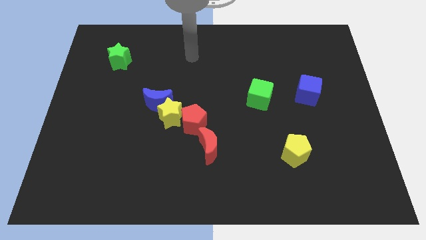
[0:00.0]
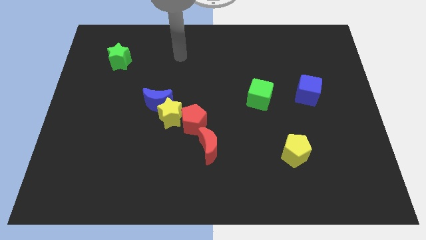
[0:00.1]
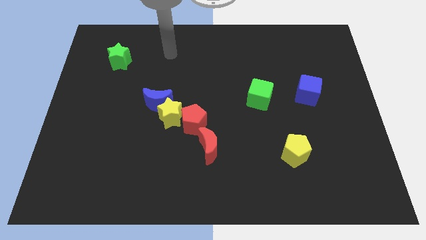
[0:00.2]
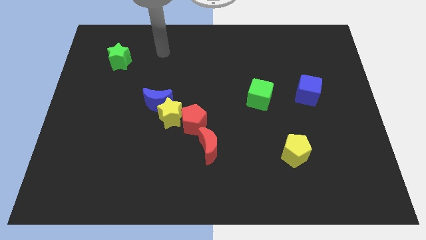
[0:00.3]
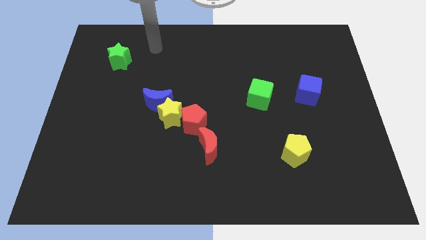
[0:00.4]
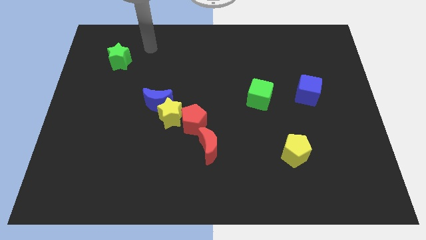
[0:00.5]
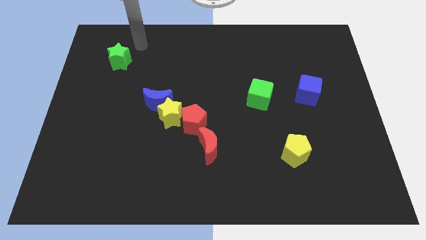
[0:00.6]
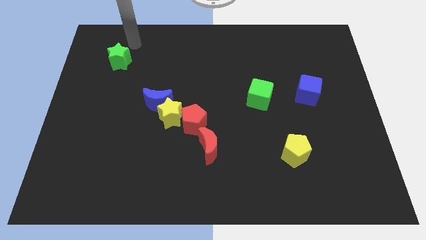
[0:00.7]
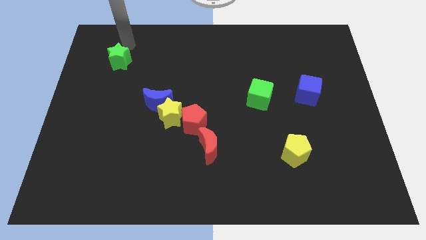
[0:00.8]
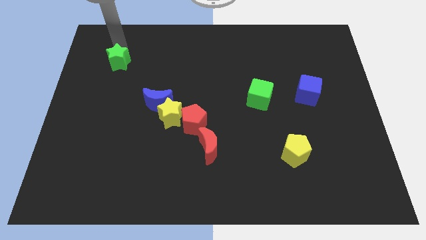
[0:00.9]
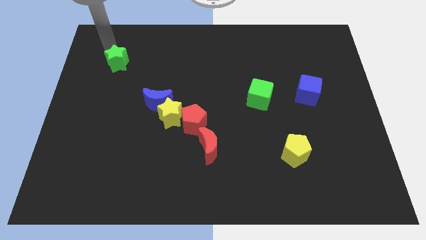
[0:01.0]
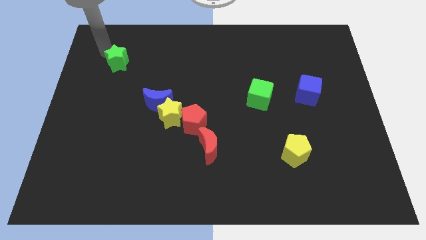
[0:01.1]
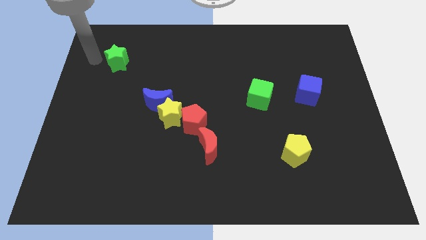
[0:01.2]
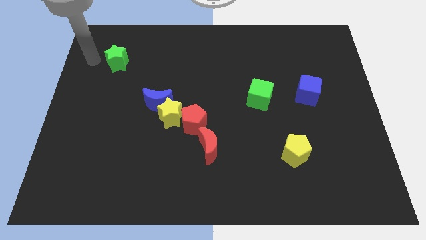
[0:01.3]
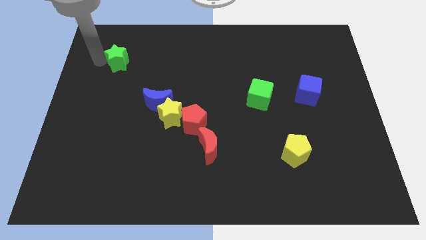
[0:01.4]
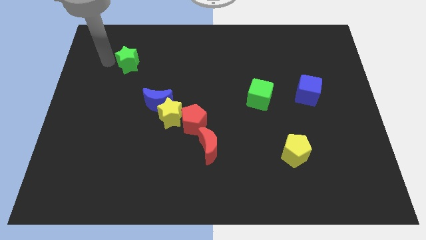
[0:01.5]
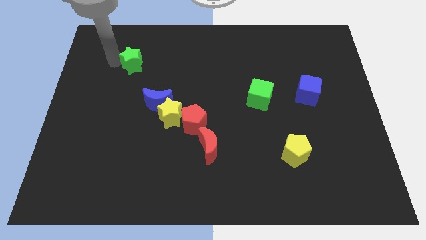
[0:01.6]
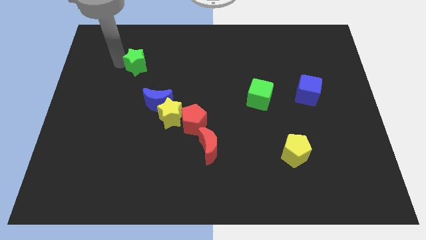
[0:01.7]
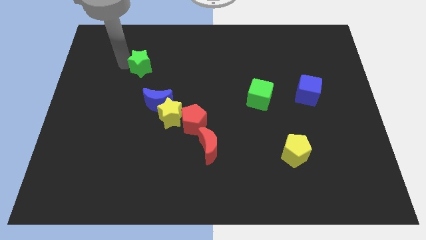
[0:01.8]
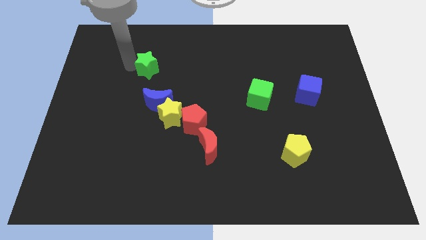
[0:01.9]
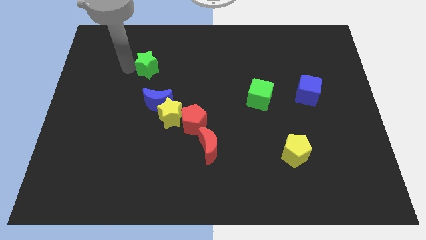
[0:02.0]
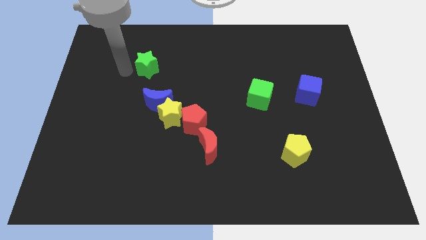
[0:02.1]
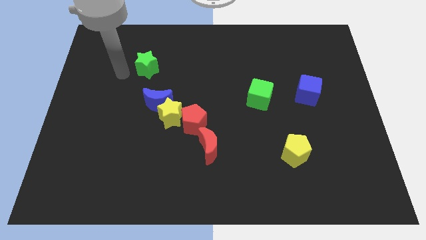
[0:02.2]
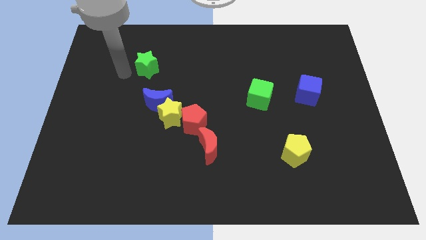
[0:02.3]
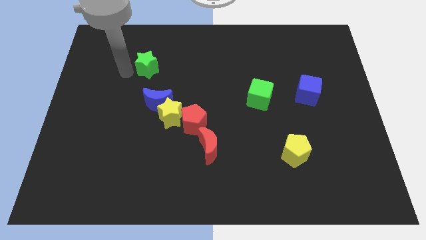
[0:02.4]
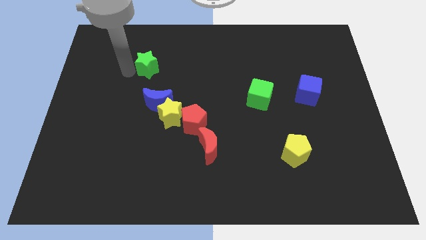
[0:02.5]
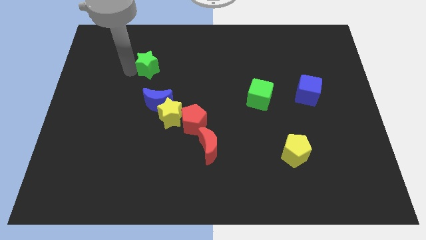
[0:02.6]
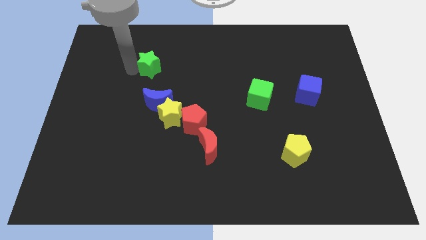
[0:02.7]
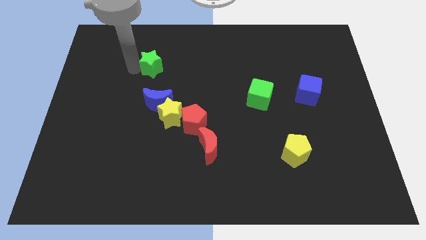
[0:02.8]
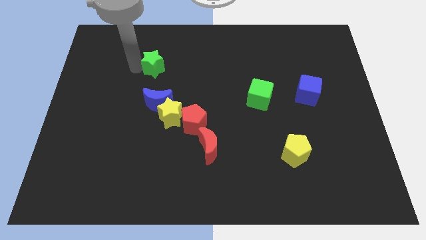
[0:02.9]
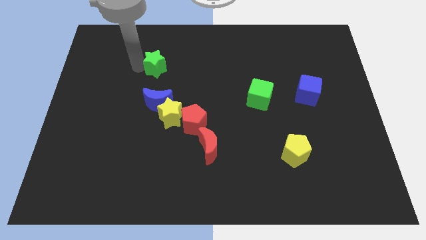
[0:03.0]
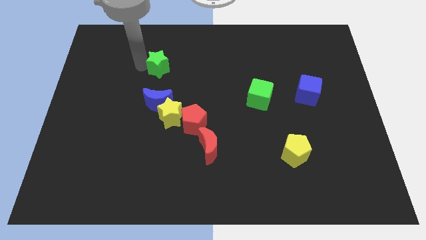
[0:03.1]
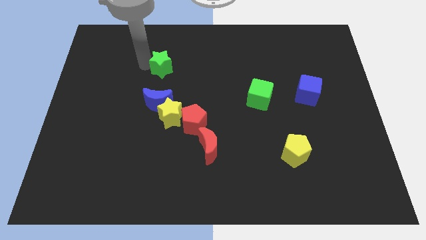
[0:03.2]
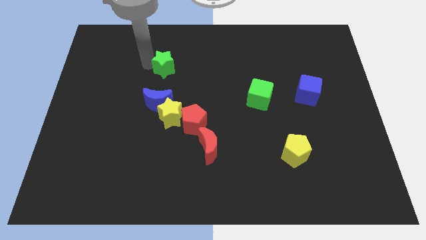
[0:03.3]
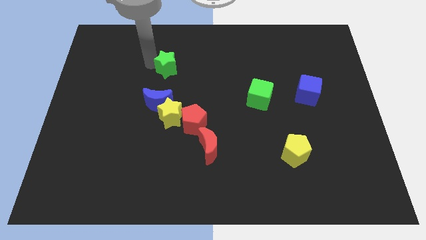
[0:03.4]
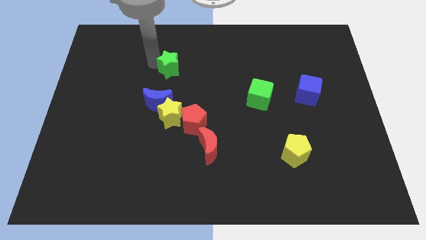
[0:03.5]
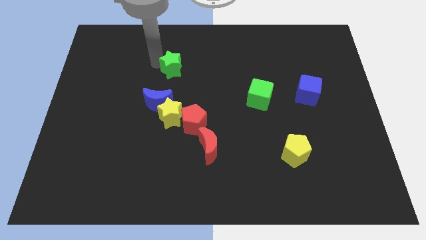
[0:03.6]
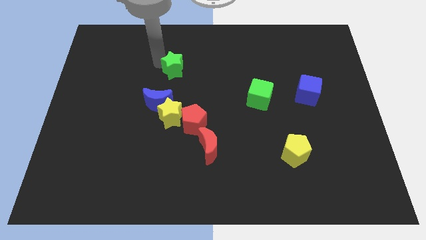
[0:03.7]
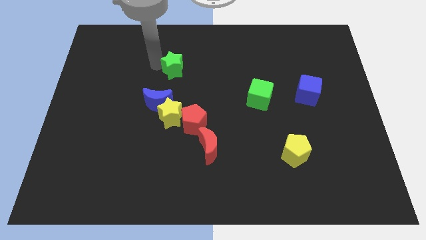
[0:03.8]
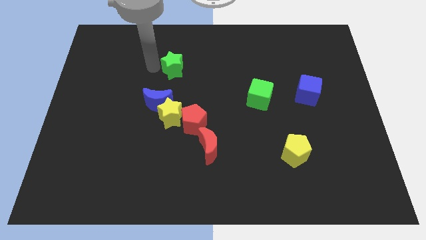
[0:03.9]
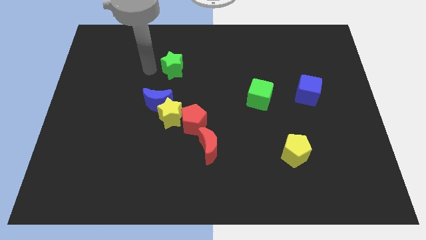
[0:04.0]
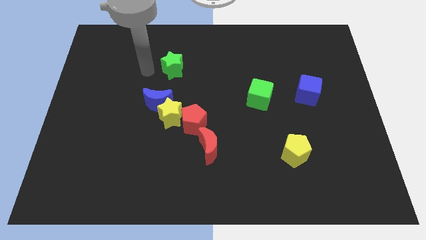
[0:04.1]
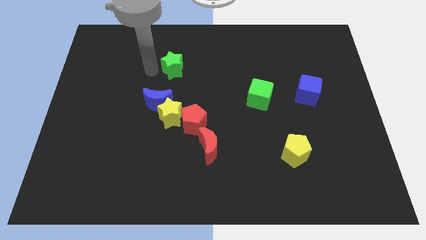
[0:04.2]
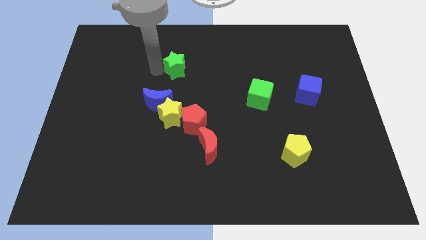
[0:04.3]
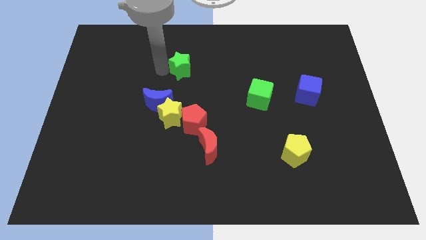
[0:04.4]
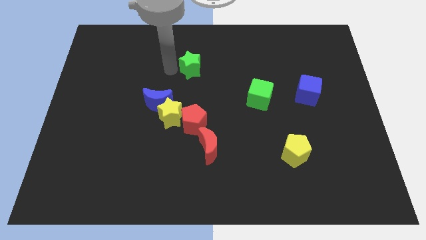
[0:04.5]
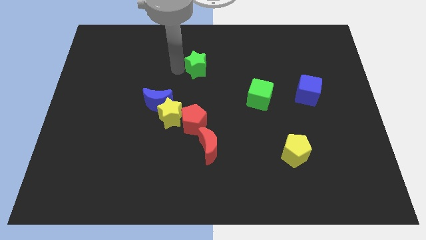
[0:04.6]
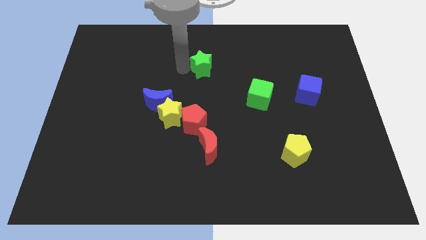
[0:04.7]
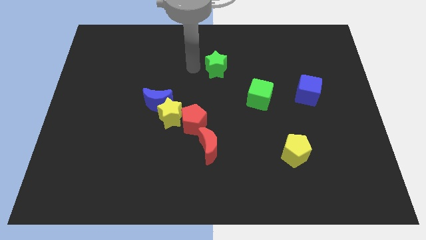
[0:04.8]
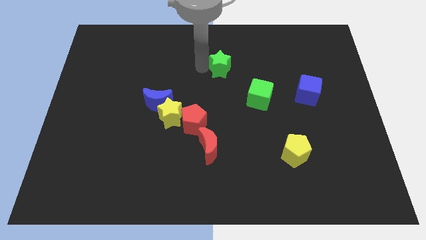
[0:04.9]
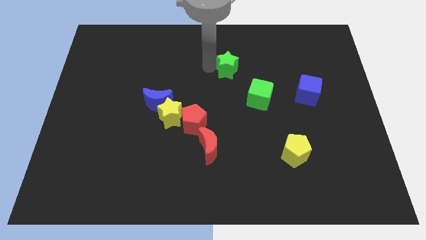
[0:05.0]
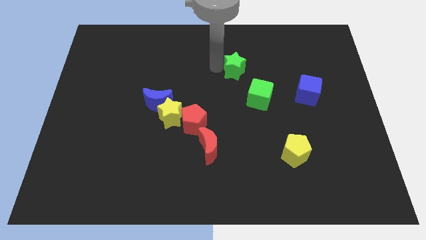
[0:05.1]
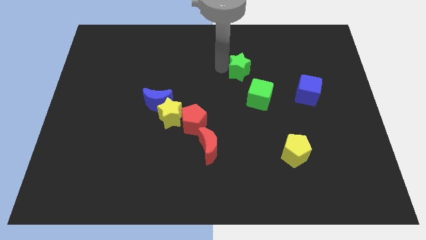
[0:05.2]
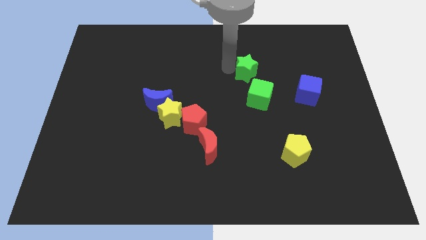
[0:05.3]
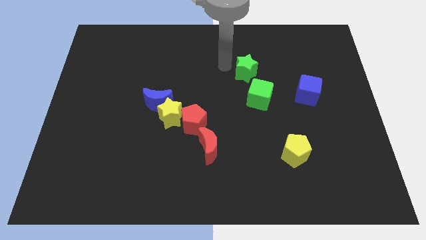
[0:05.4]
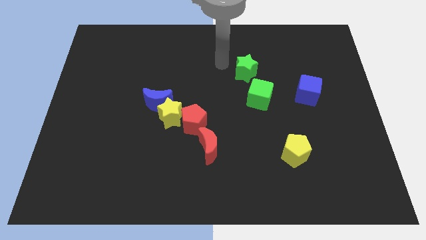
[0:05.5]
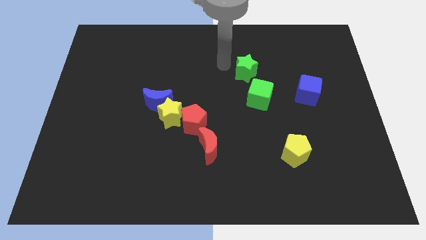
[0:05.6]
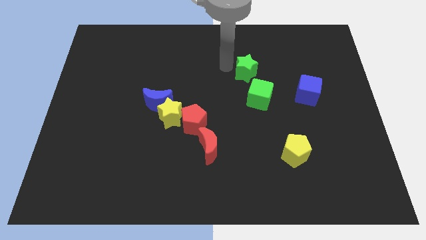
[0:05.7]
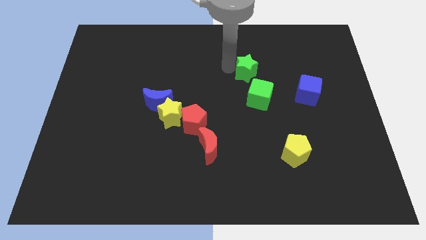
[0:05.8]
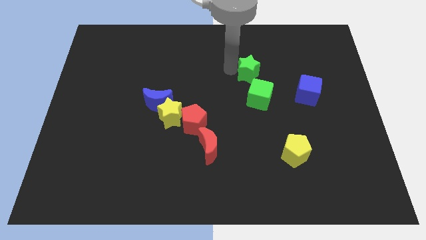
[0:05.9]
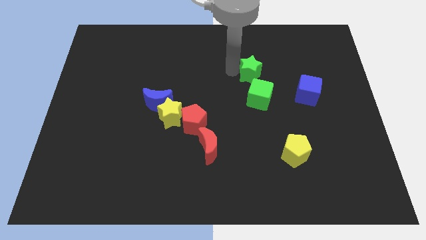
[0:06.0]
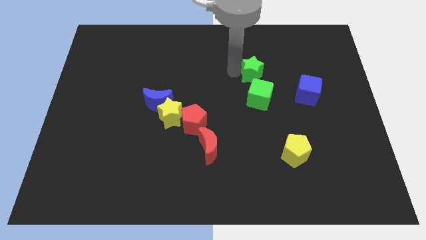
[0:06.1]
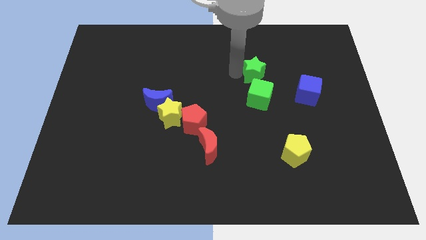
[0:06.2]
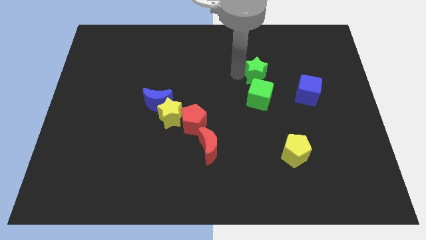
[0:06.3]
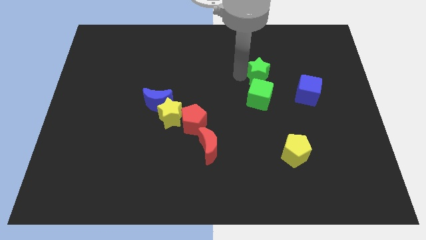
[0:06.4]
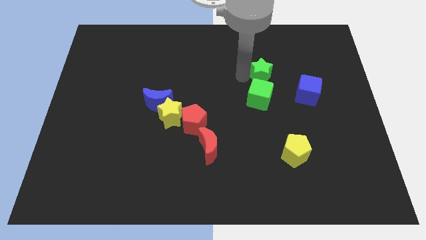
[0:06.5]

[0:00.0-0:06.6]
put the green star to the top right side of the green cube

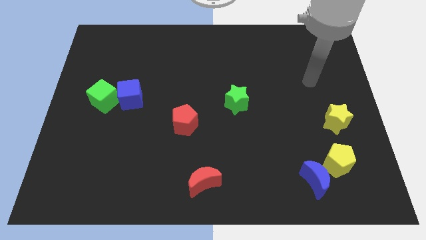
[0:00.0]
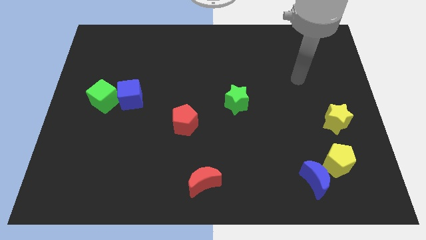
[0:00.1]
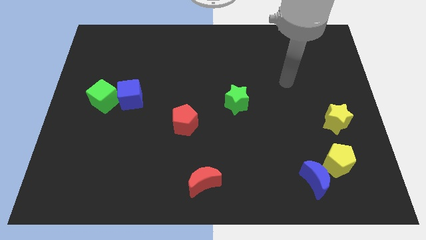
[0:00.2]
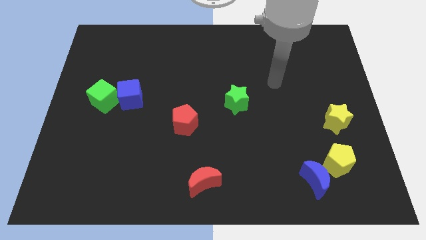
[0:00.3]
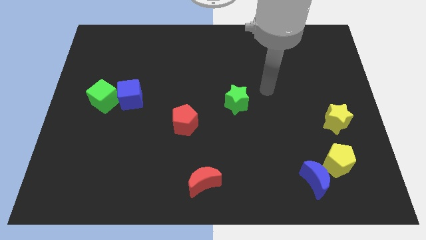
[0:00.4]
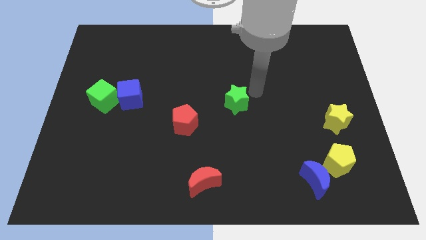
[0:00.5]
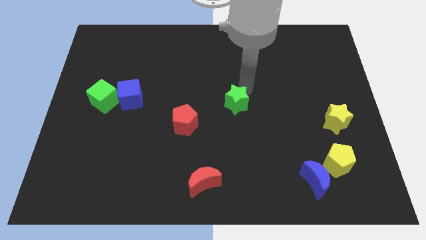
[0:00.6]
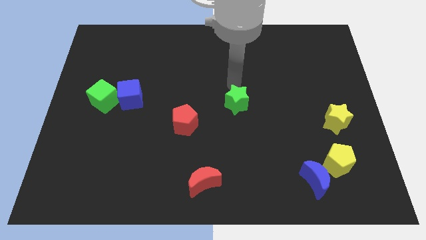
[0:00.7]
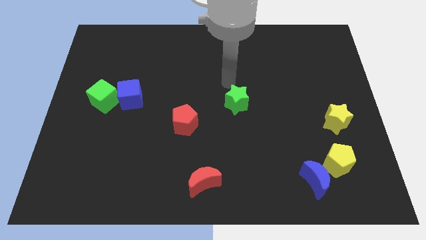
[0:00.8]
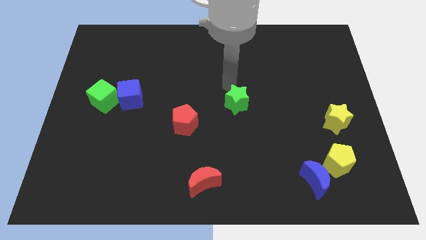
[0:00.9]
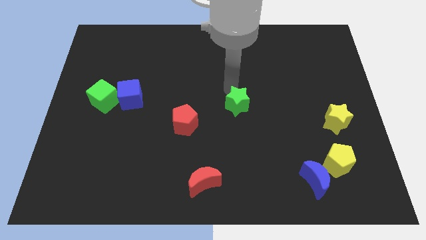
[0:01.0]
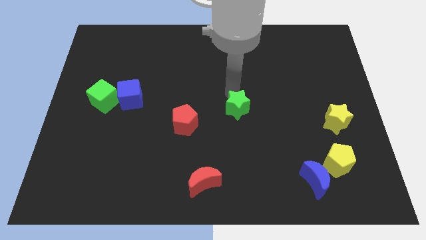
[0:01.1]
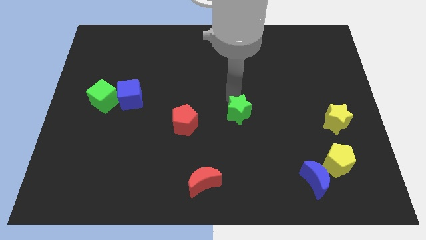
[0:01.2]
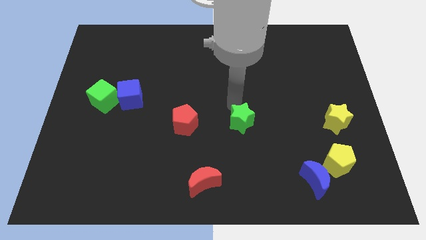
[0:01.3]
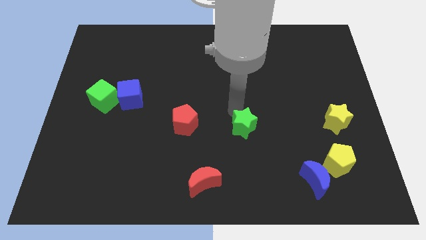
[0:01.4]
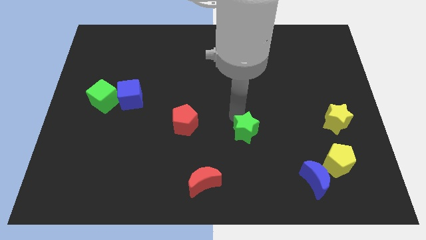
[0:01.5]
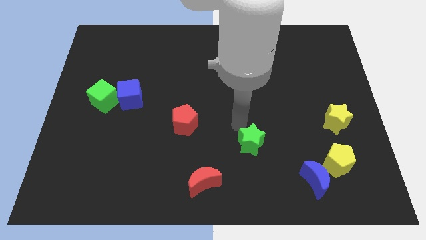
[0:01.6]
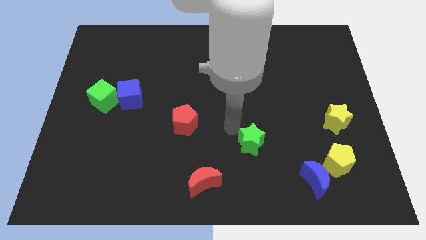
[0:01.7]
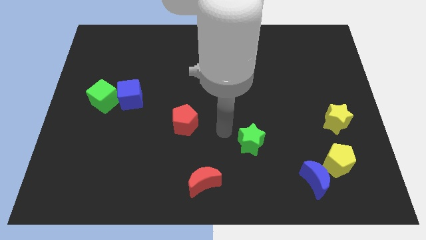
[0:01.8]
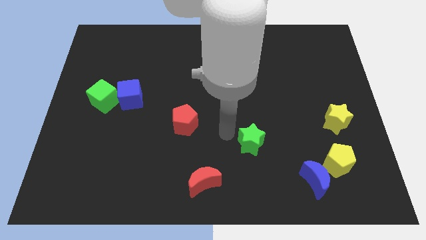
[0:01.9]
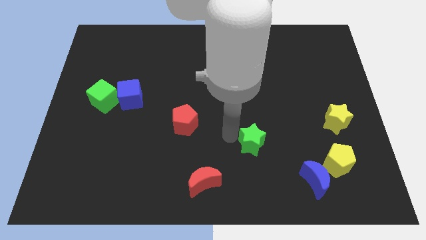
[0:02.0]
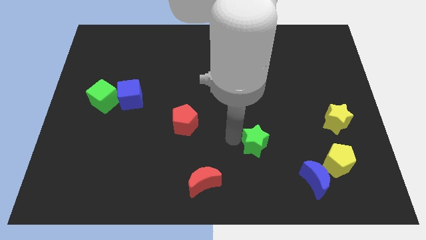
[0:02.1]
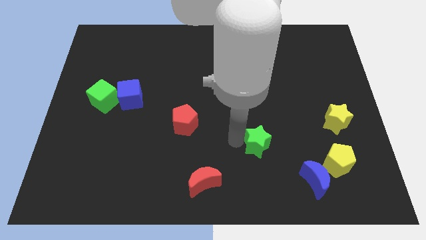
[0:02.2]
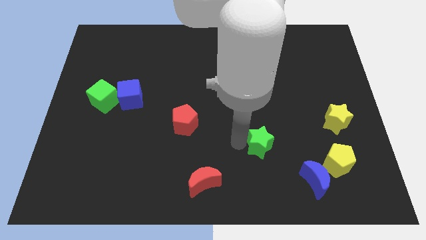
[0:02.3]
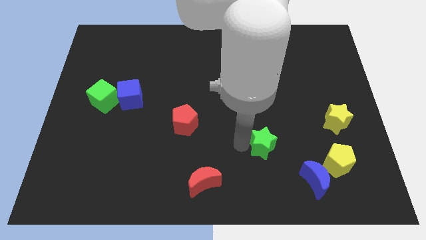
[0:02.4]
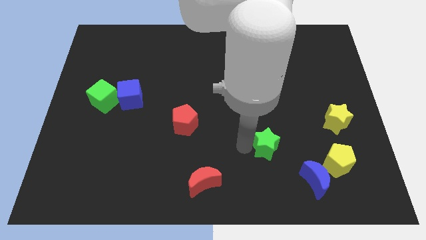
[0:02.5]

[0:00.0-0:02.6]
slide the green star diagonally up and to the left of the blue moon
